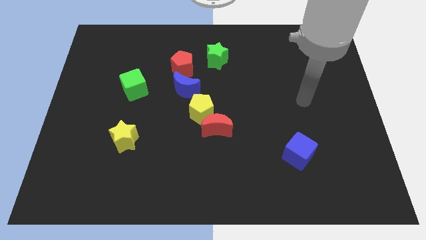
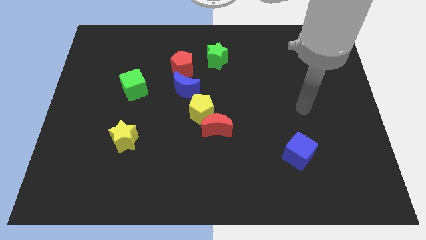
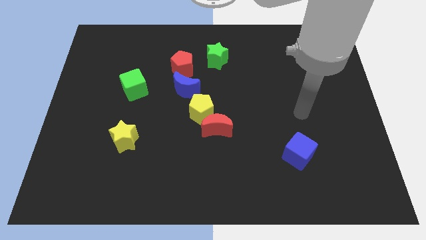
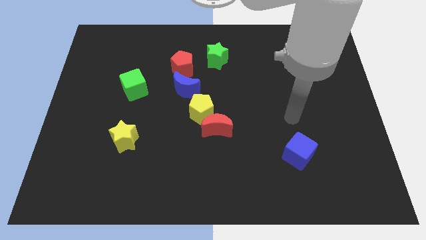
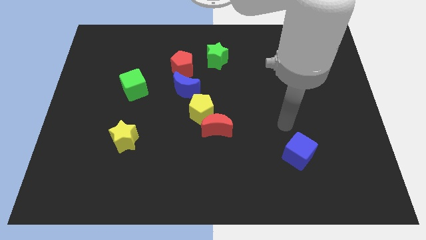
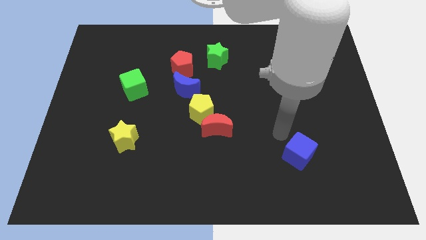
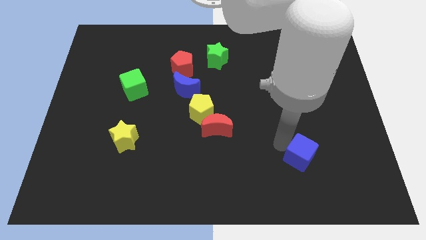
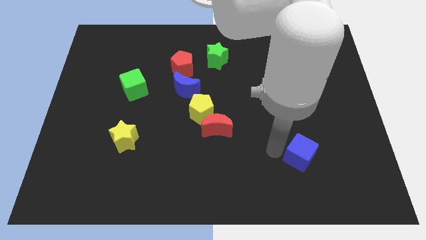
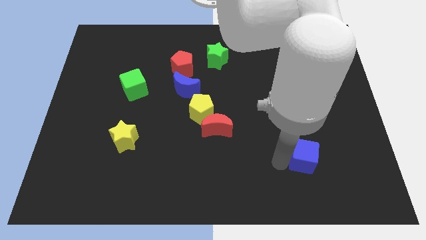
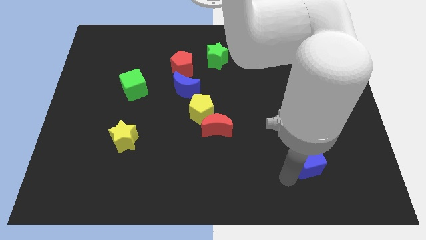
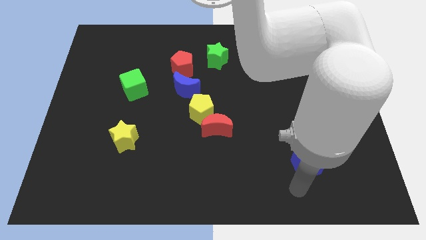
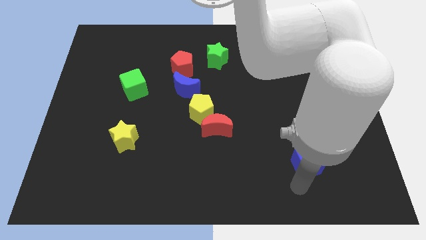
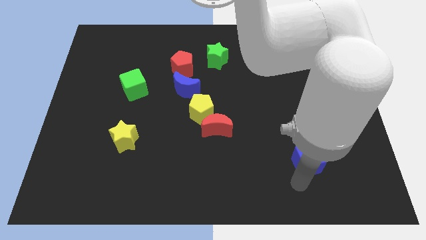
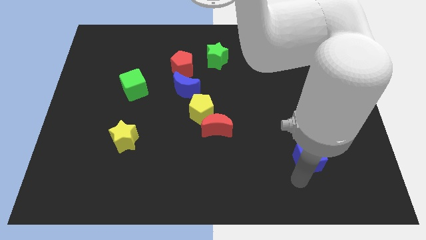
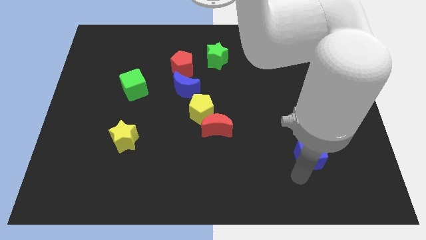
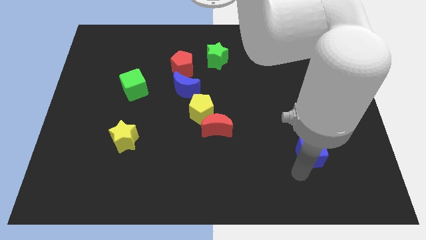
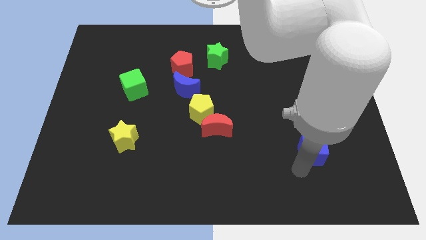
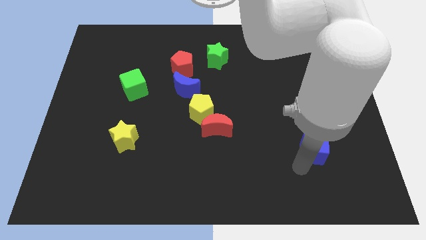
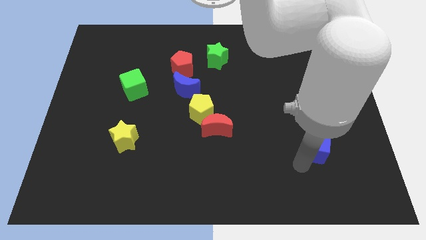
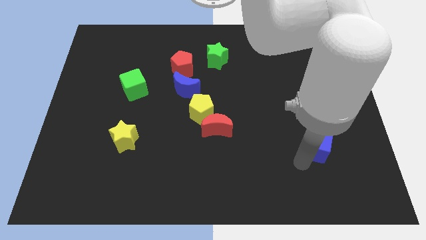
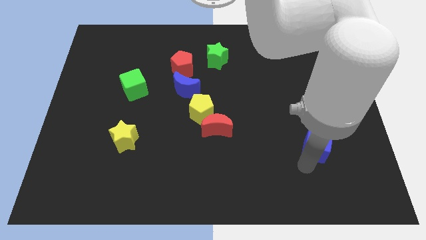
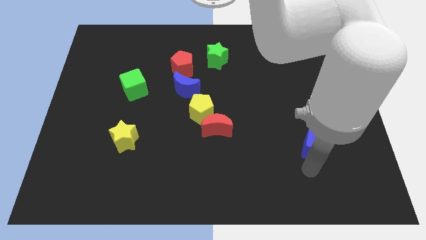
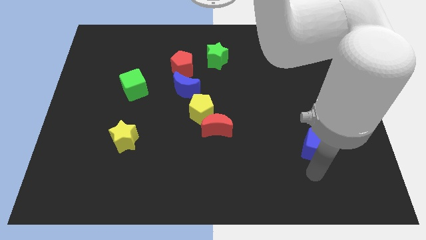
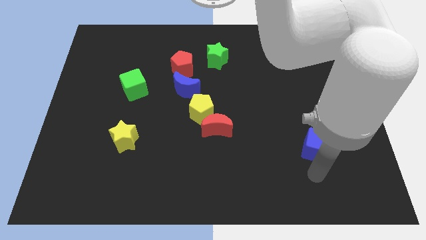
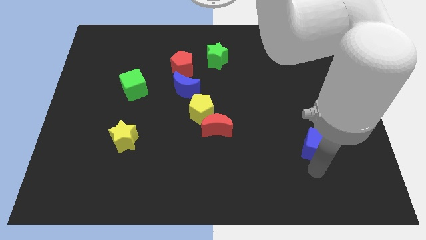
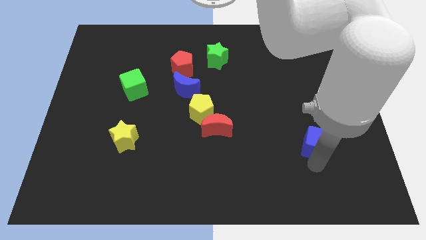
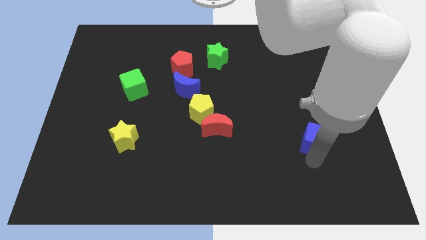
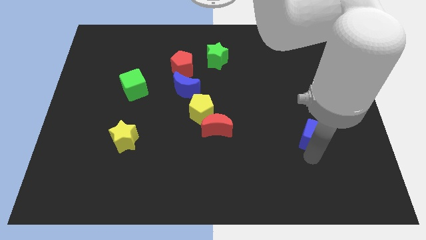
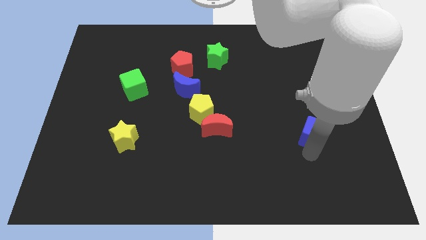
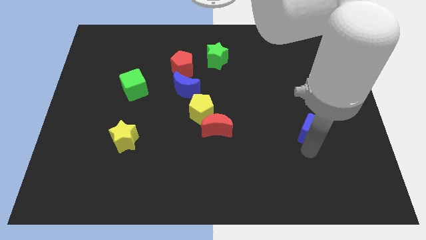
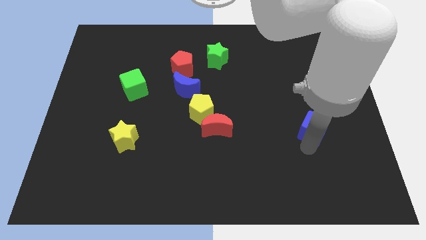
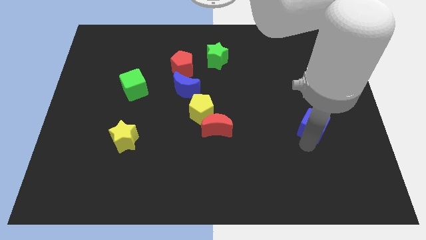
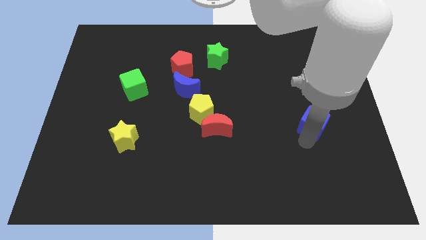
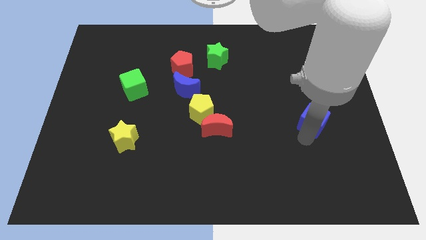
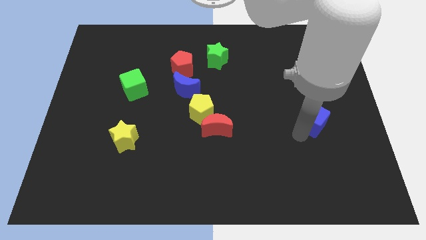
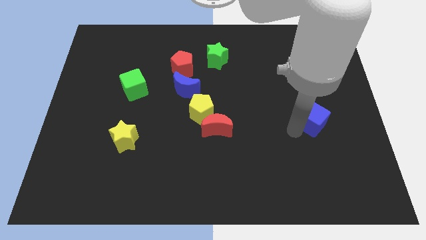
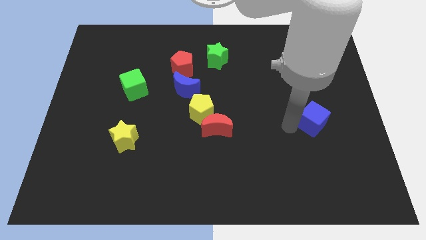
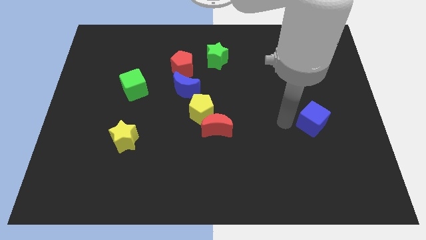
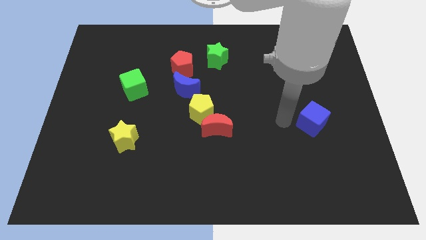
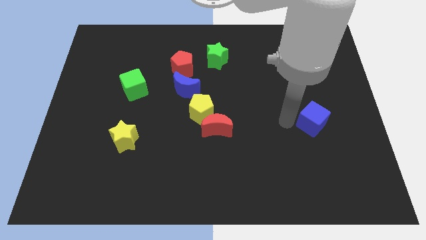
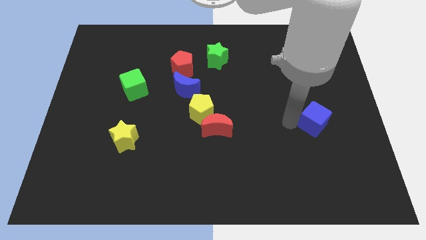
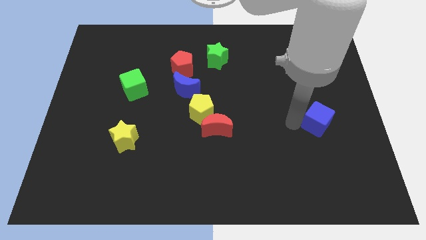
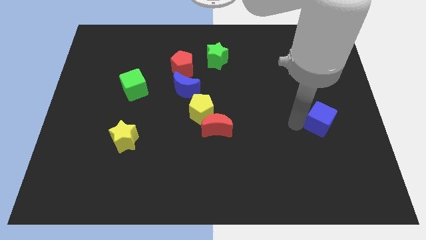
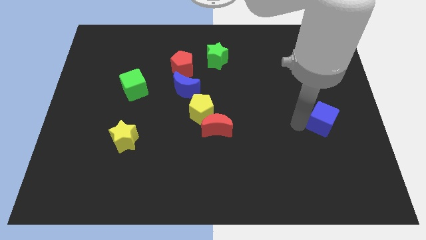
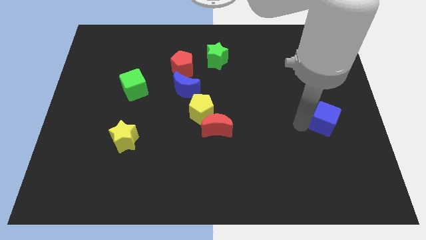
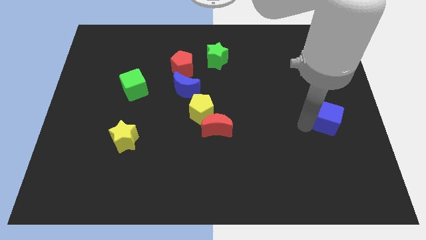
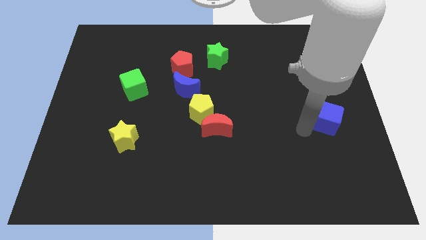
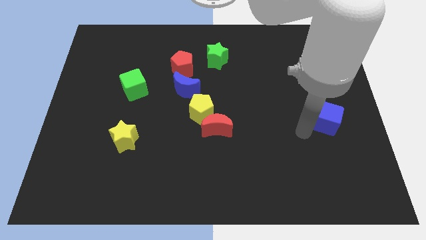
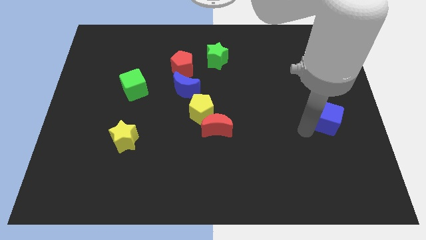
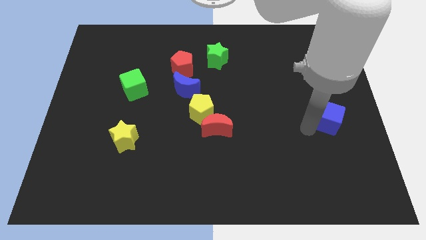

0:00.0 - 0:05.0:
move the blue cube to the right side of the board

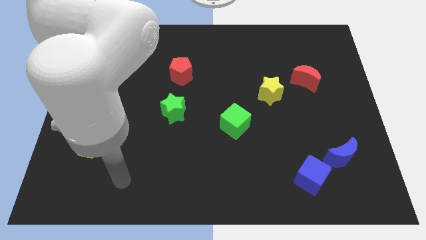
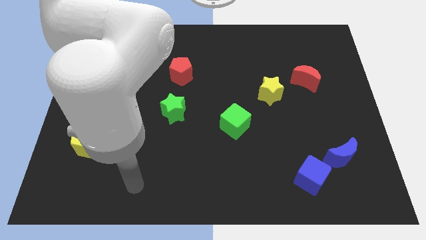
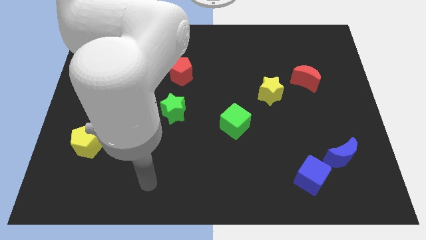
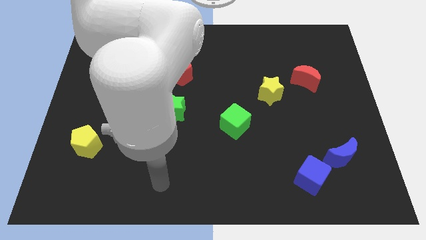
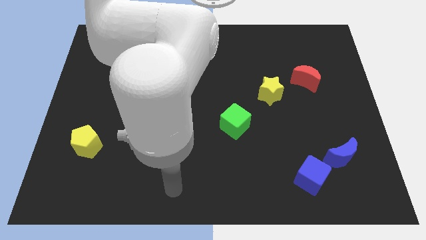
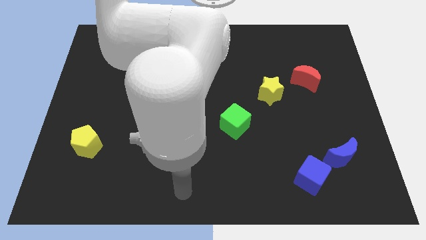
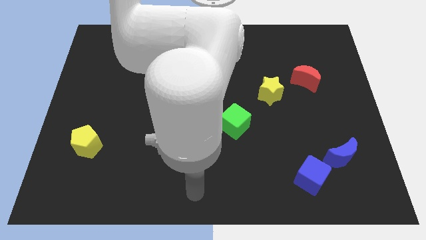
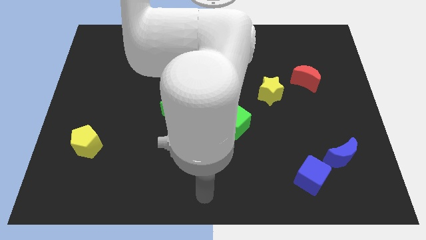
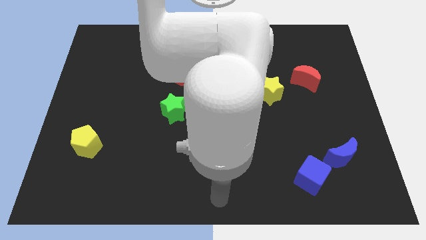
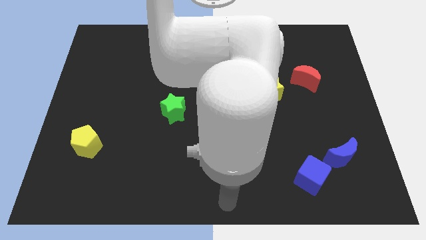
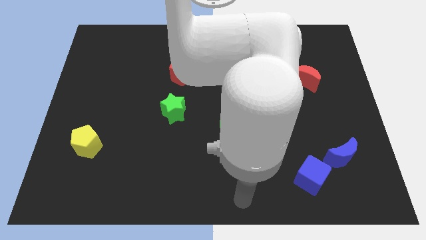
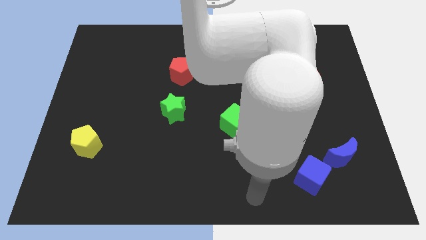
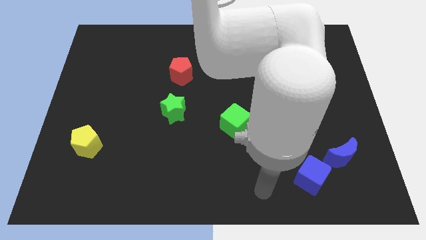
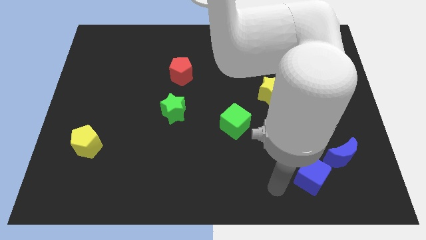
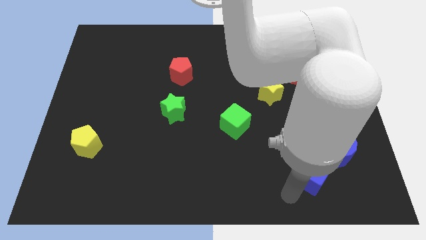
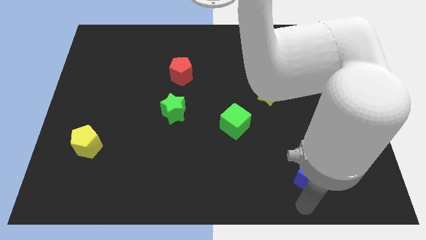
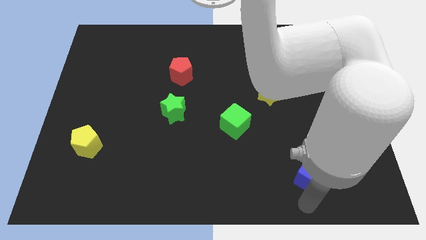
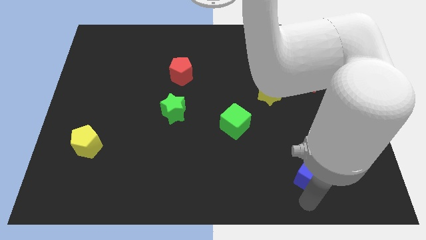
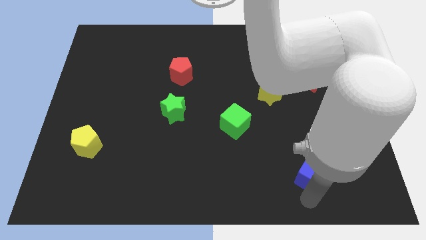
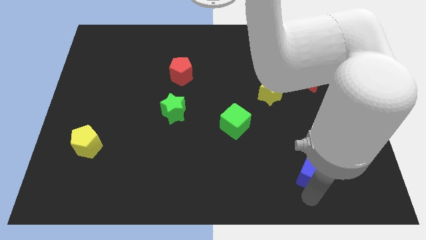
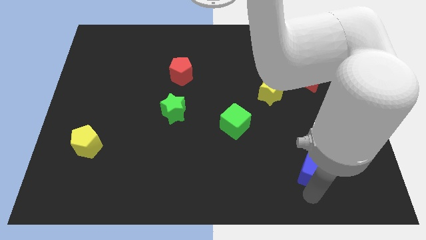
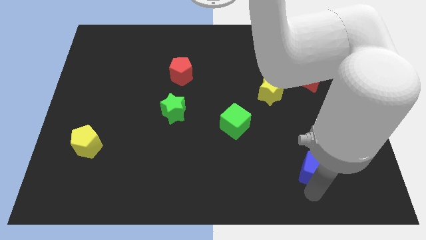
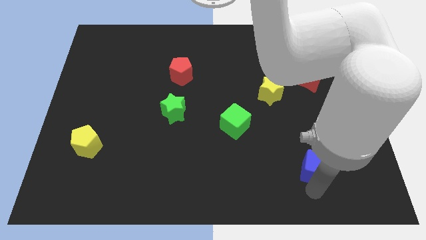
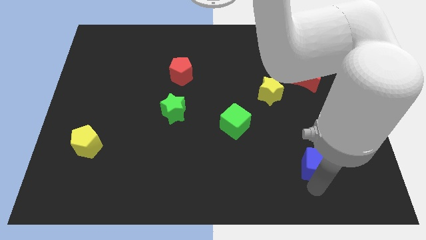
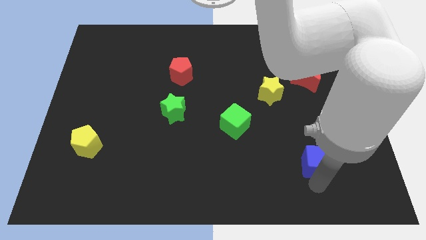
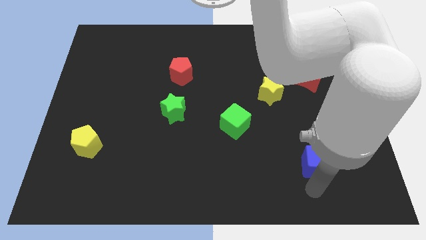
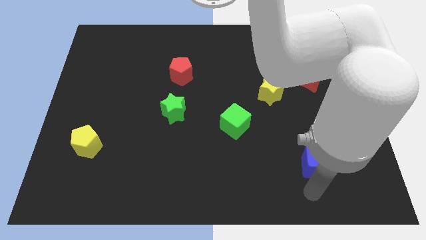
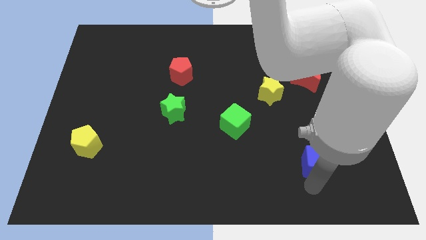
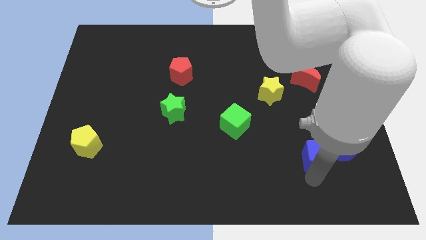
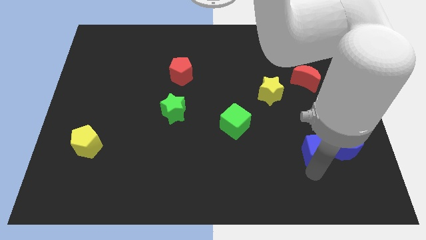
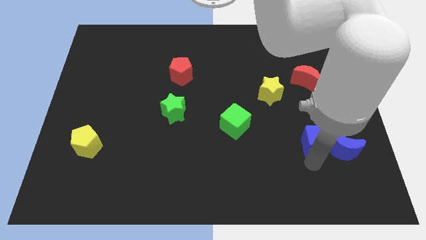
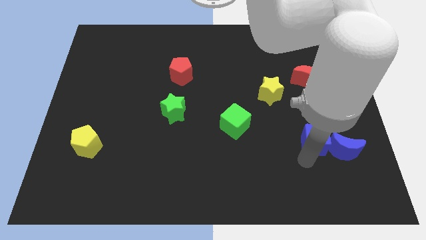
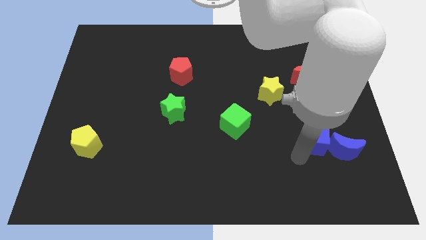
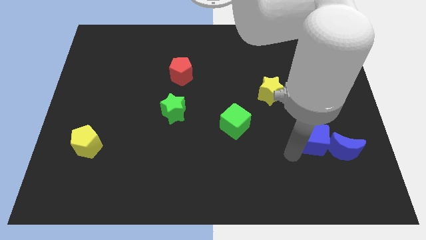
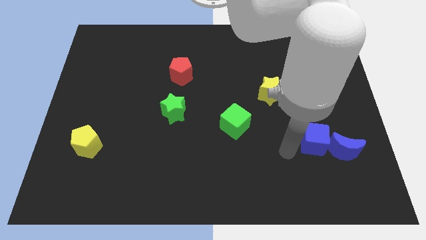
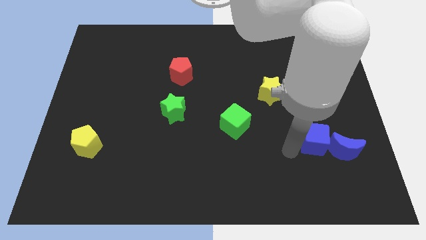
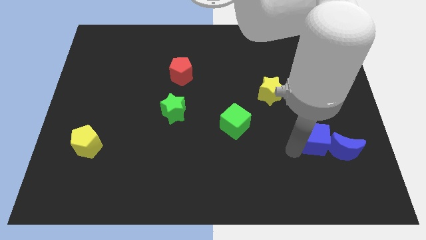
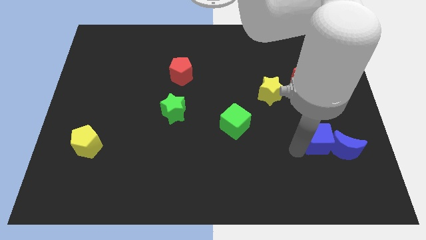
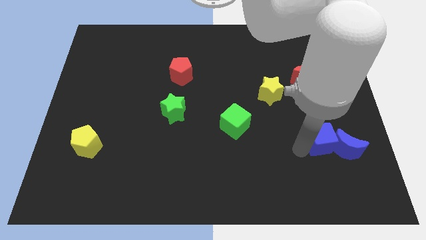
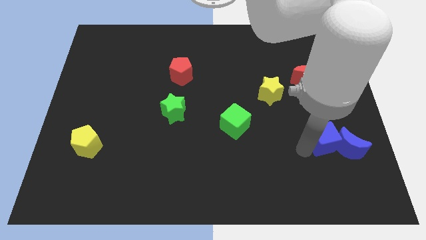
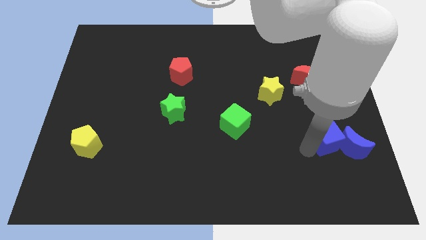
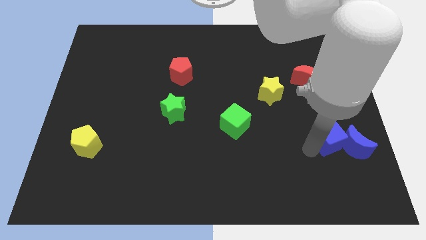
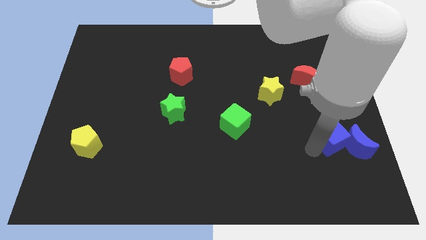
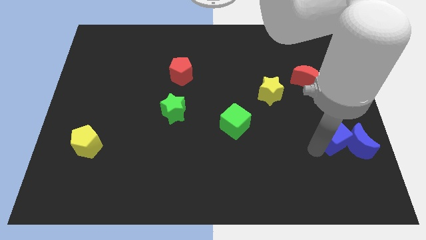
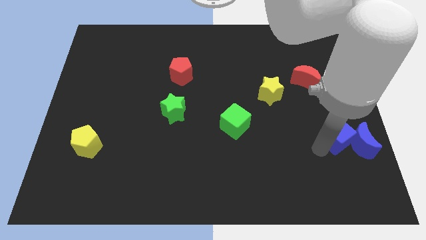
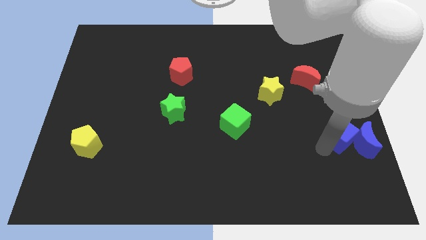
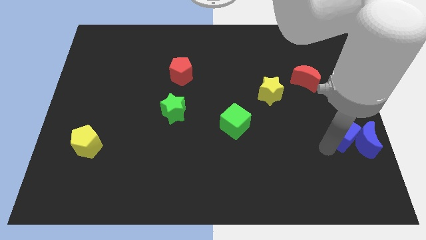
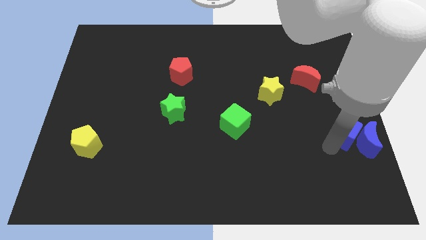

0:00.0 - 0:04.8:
slide the blue cube to the right side of the board
